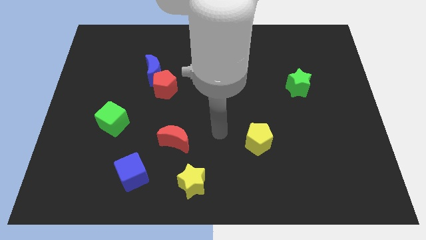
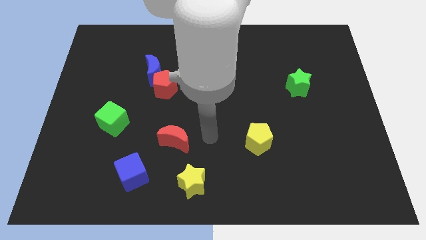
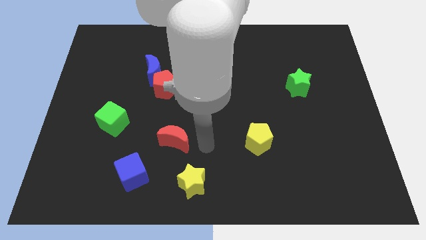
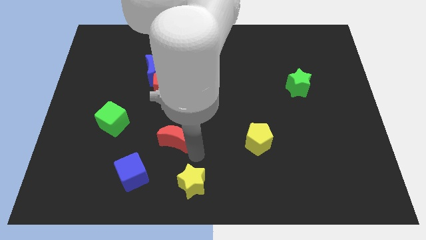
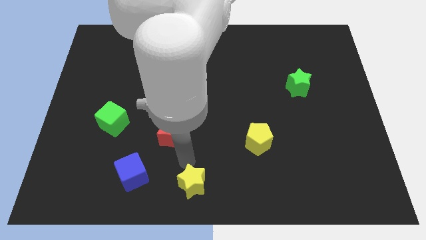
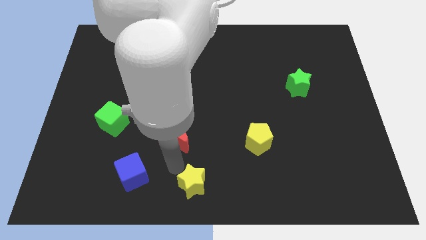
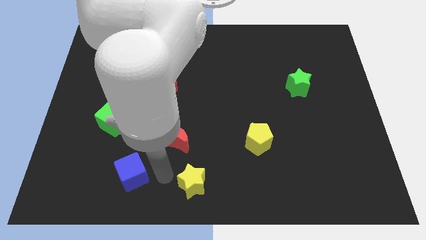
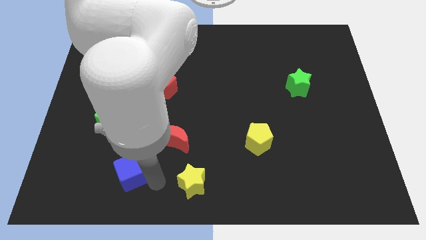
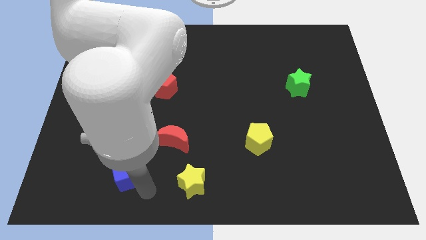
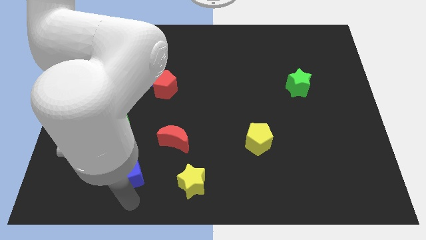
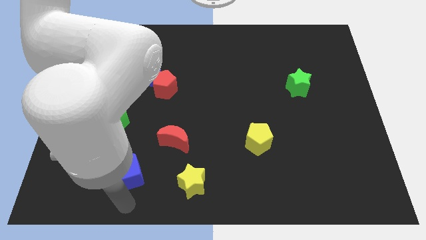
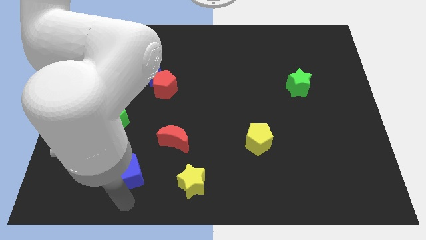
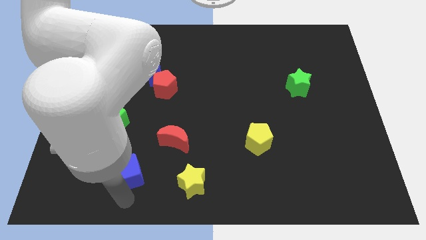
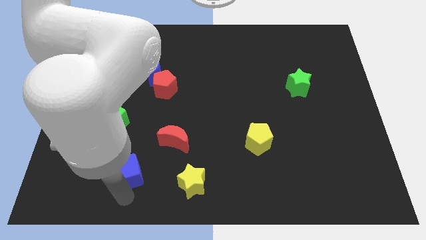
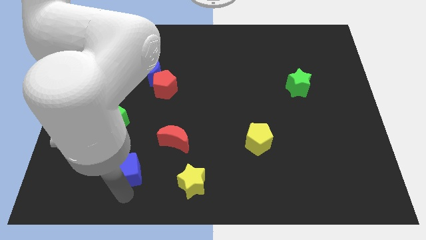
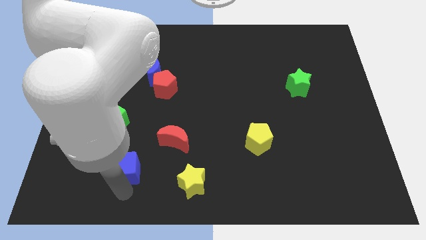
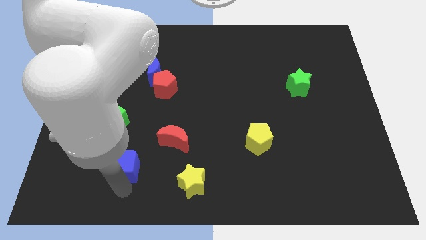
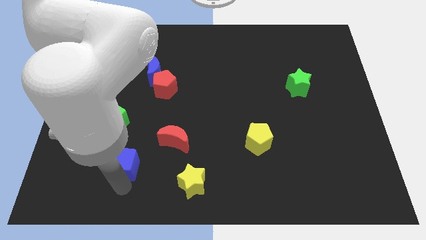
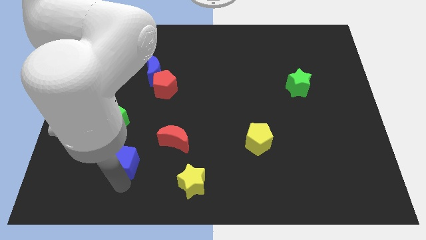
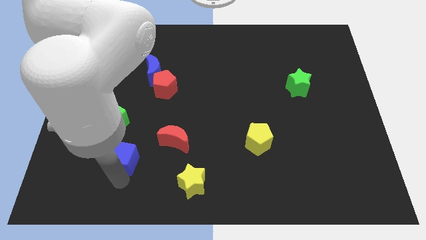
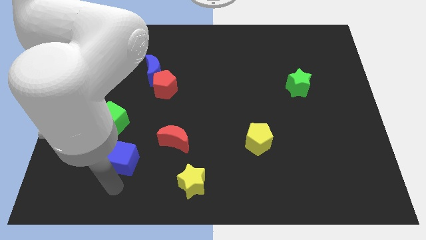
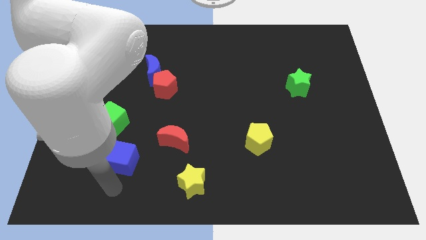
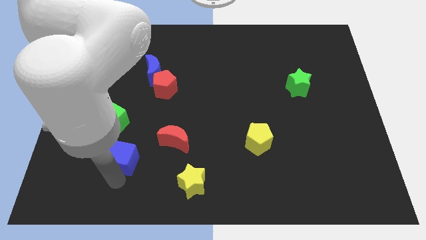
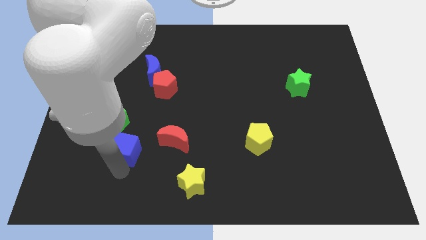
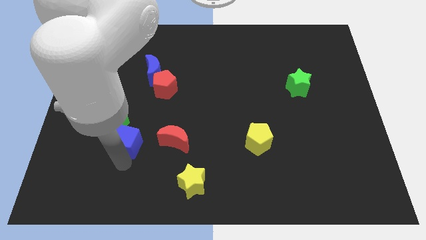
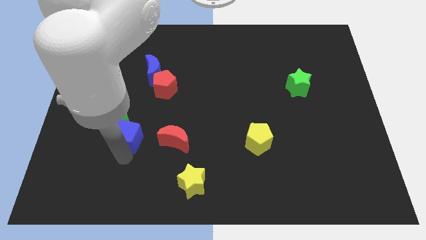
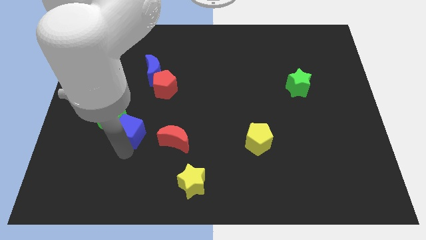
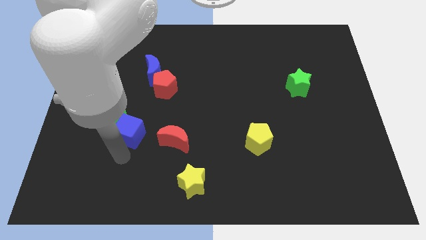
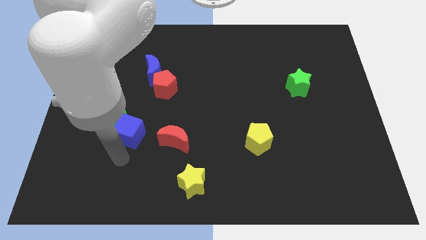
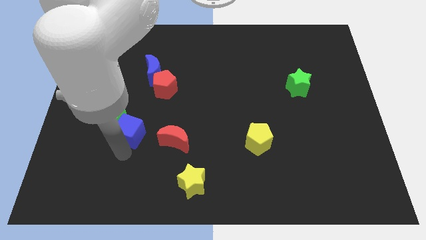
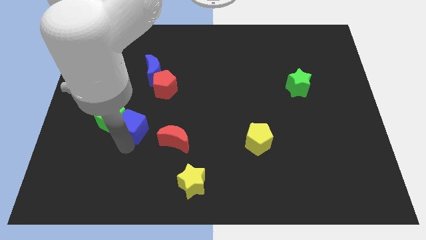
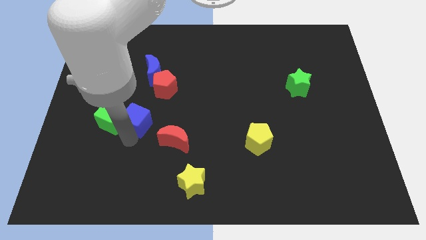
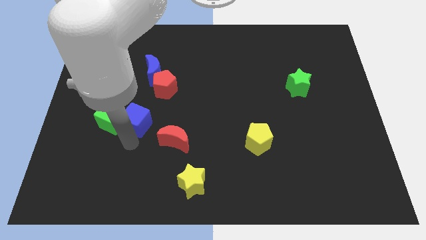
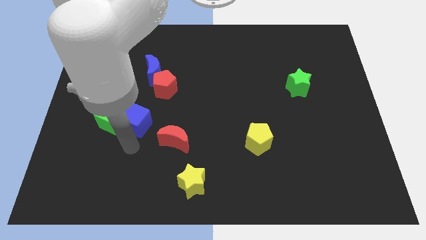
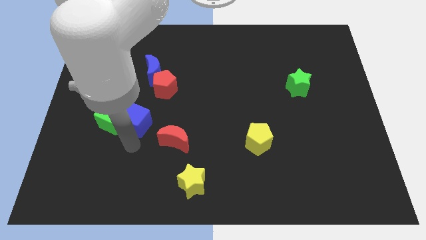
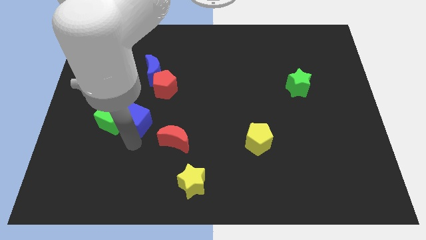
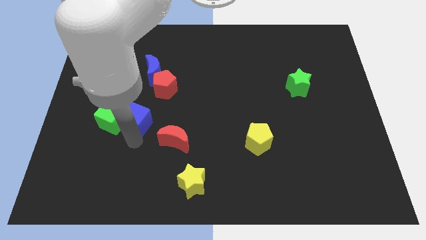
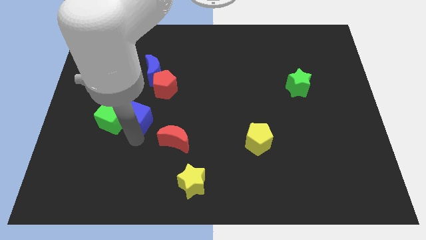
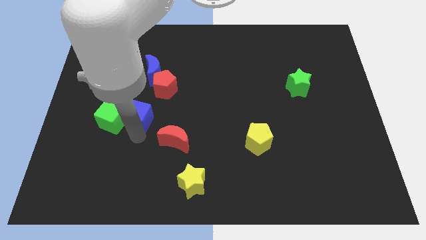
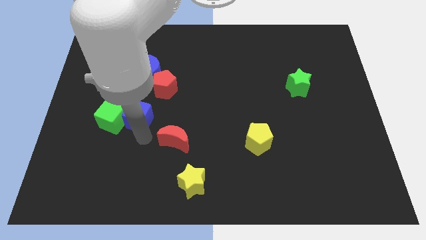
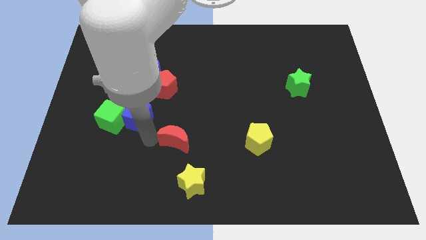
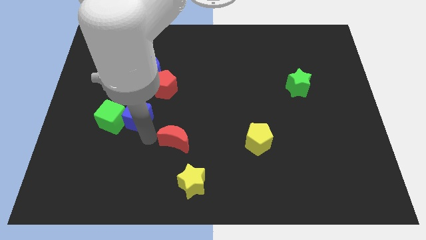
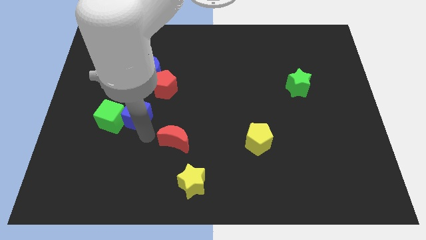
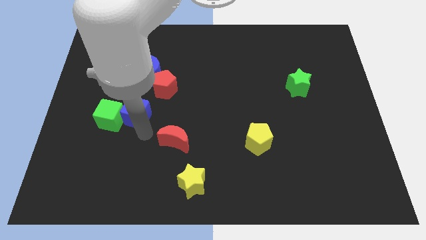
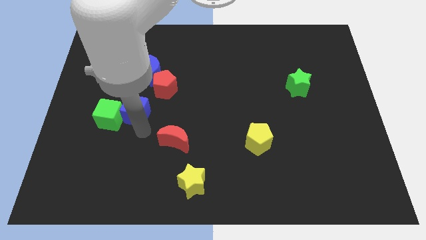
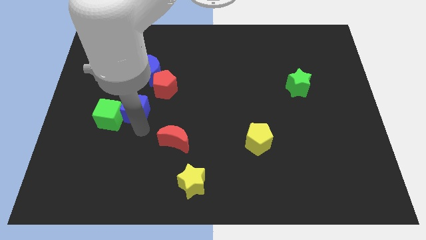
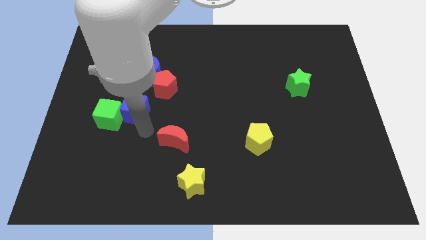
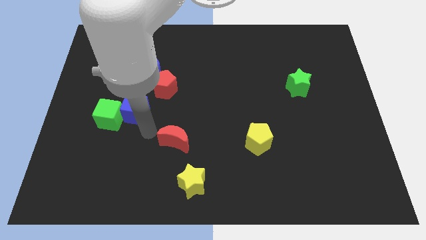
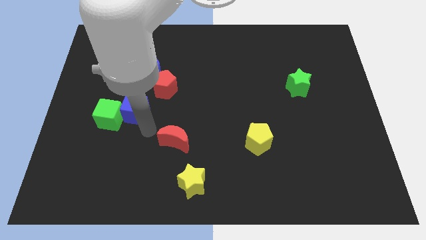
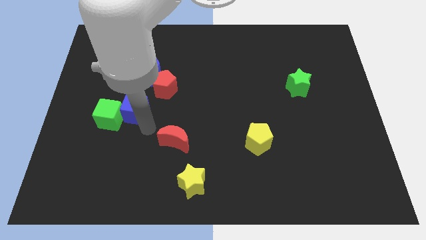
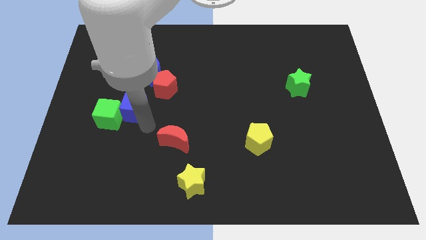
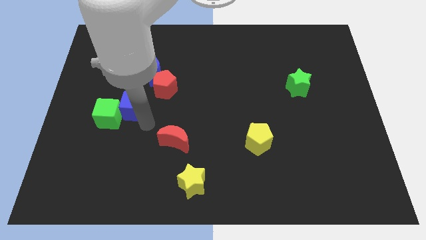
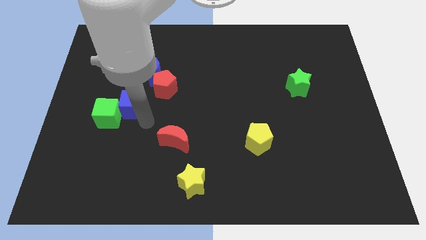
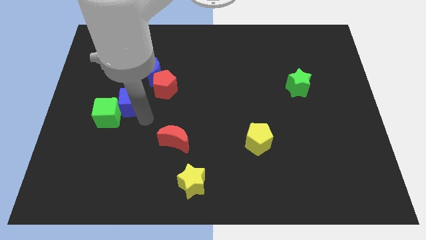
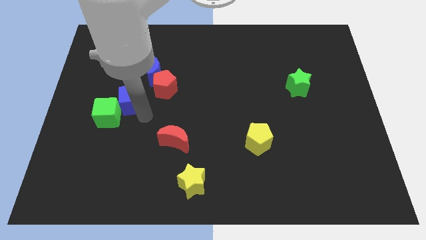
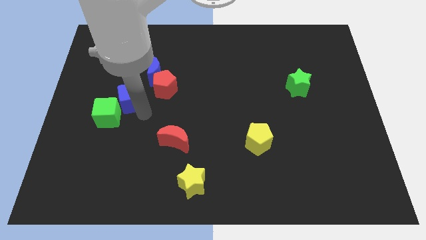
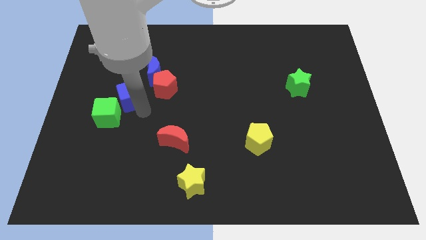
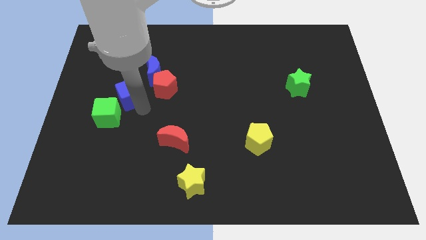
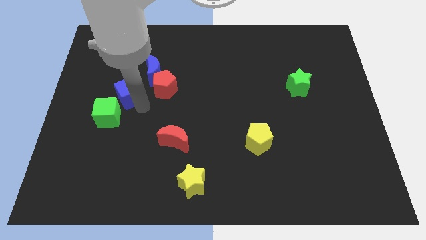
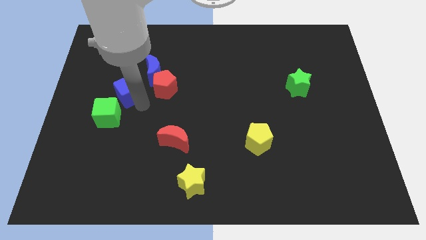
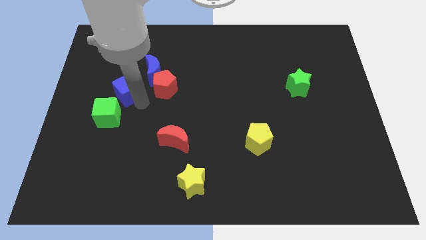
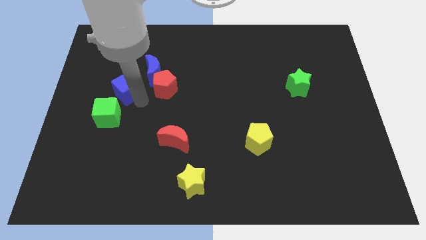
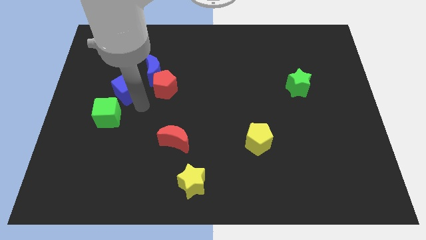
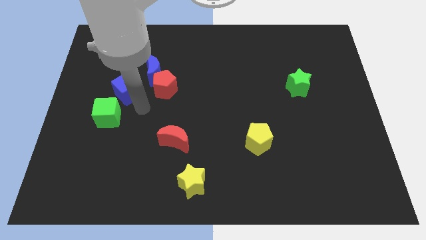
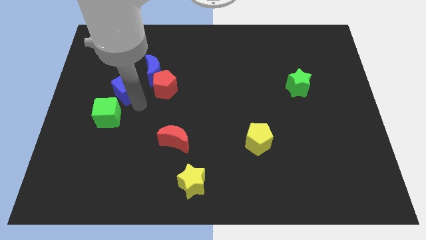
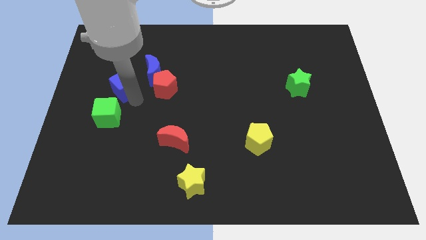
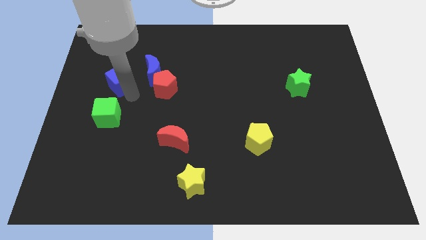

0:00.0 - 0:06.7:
move the blue cube just left of the blue moon

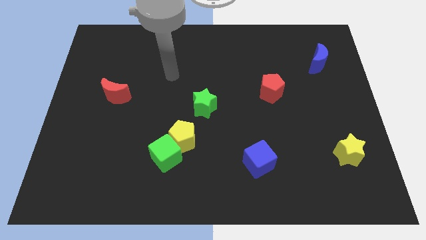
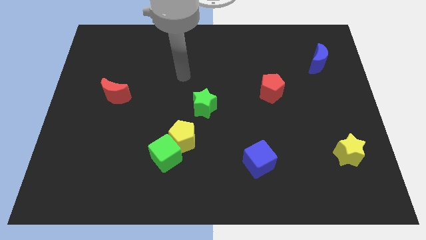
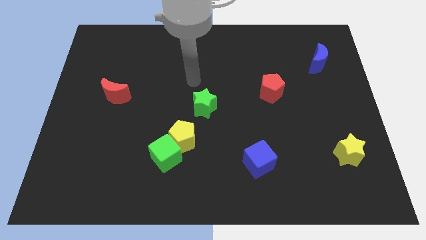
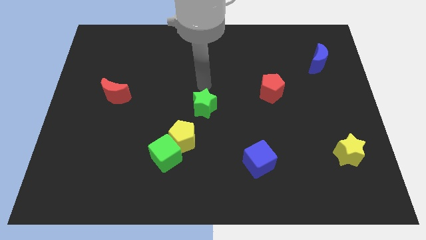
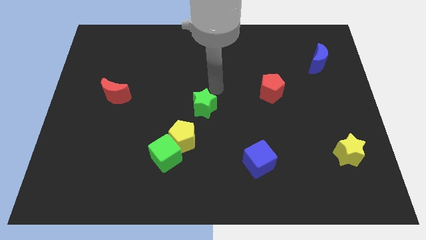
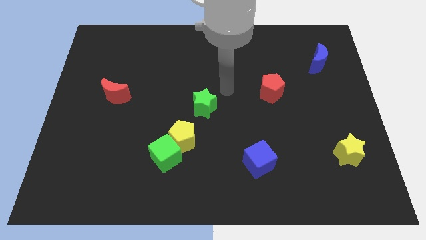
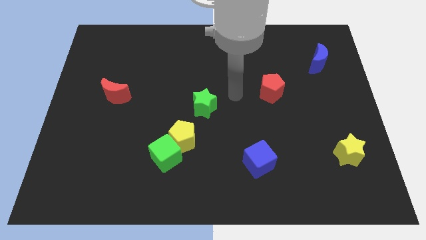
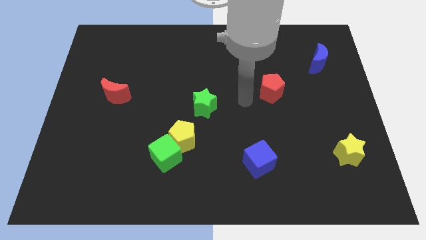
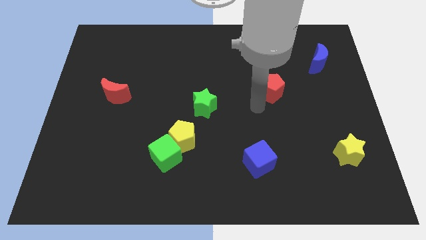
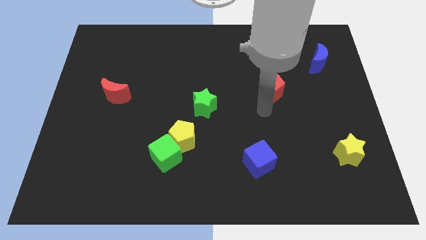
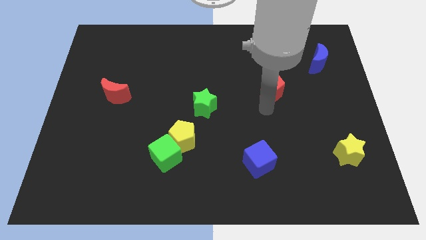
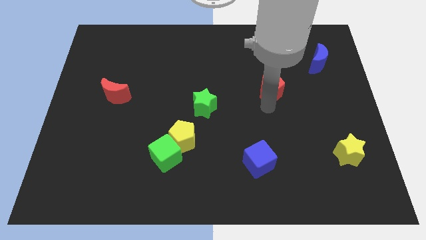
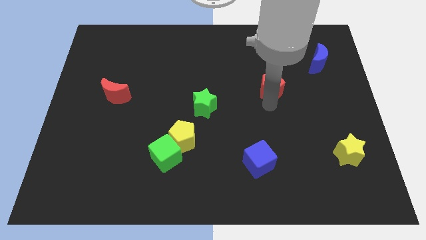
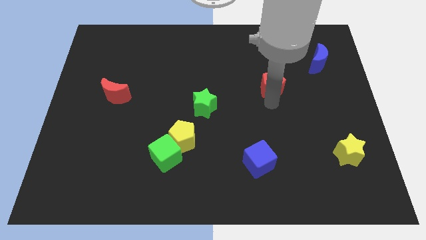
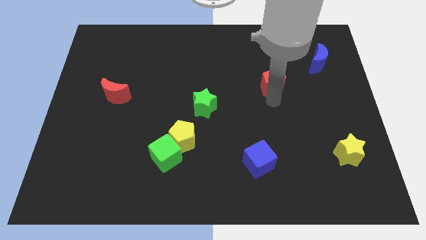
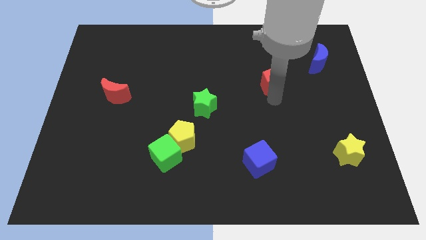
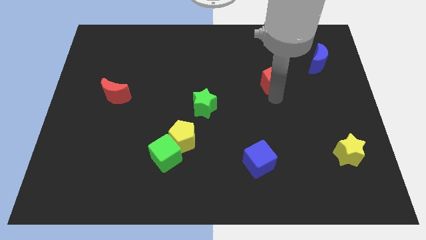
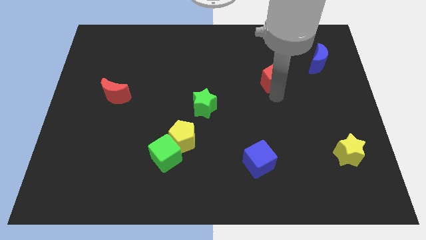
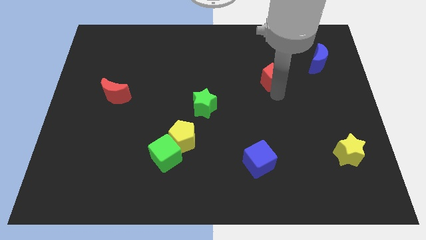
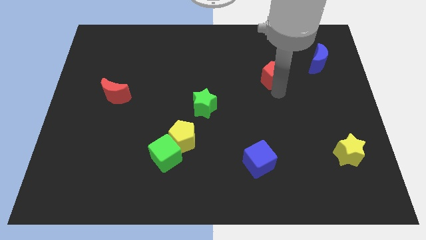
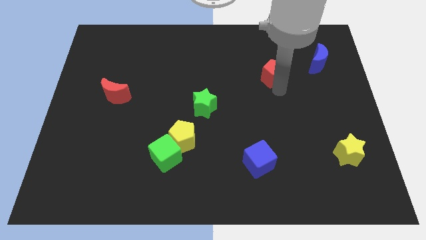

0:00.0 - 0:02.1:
put the red pentagon to the left side of the blue moon
